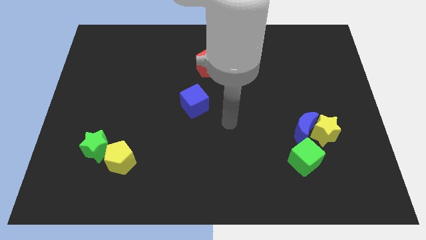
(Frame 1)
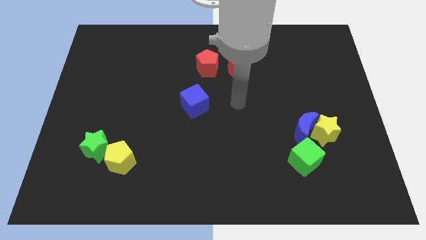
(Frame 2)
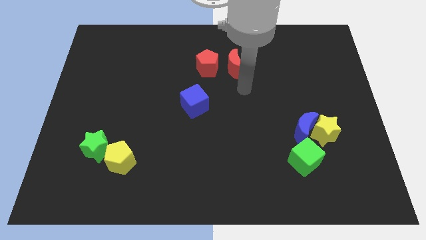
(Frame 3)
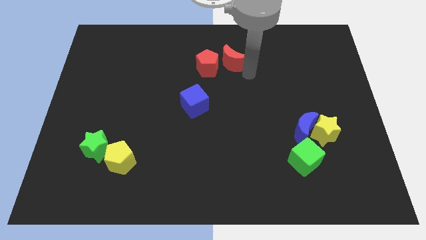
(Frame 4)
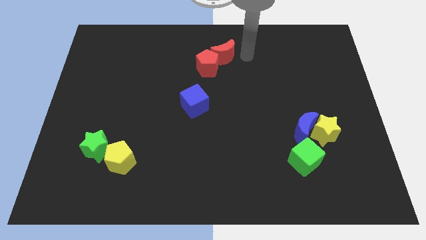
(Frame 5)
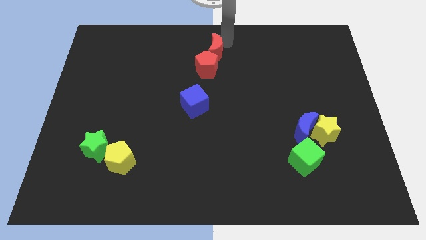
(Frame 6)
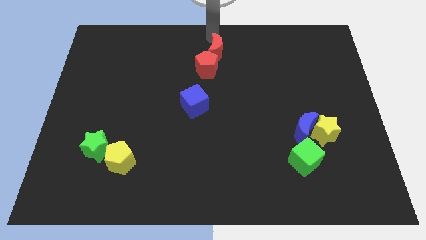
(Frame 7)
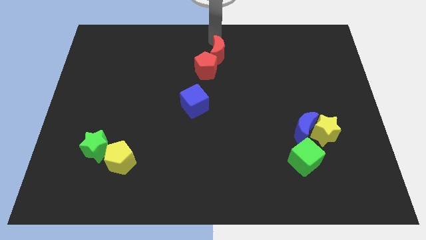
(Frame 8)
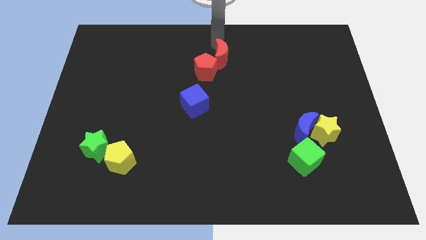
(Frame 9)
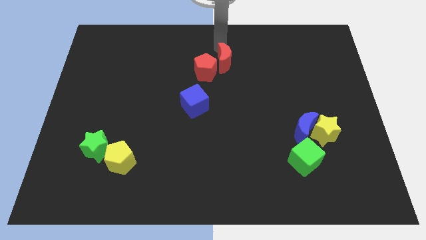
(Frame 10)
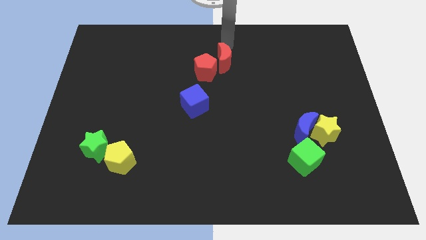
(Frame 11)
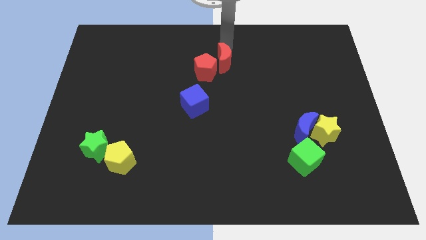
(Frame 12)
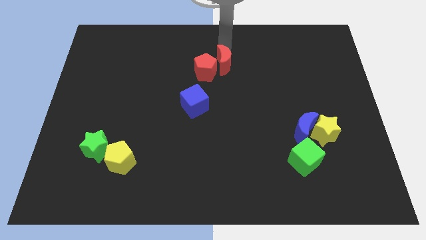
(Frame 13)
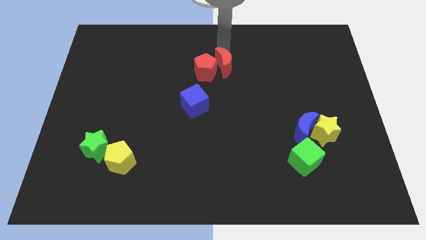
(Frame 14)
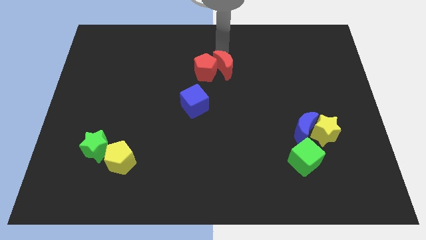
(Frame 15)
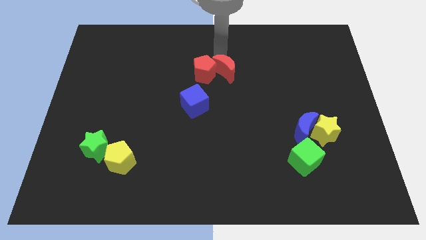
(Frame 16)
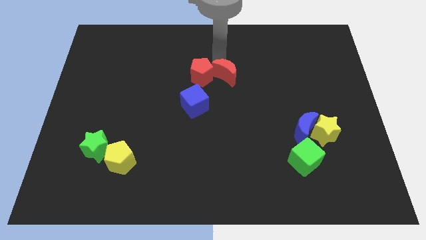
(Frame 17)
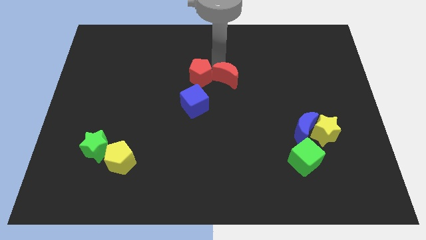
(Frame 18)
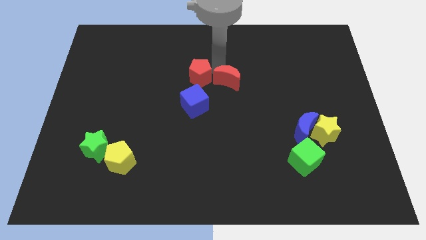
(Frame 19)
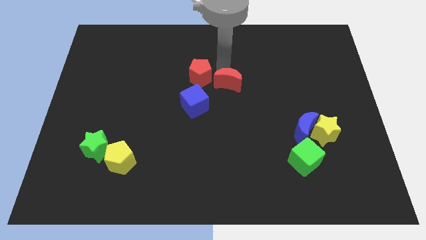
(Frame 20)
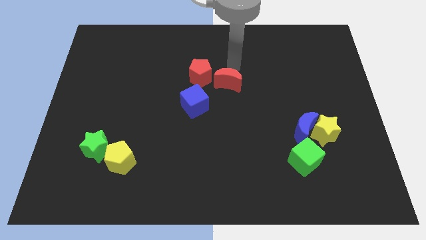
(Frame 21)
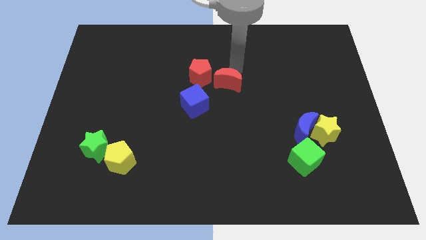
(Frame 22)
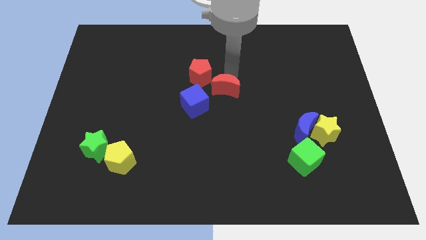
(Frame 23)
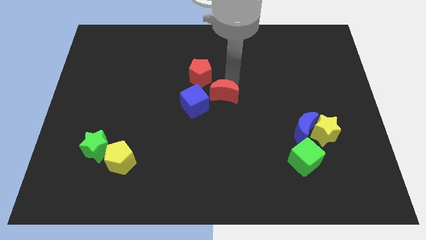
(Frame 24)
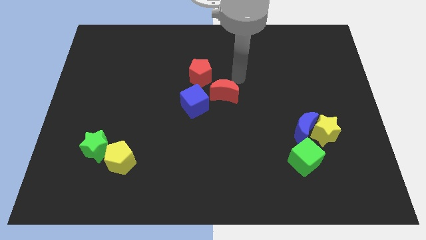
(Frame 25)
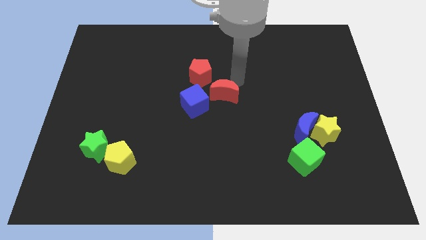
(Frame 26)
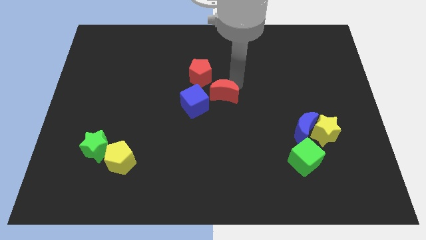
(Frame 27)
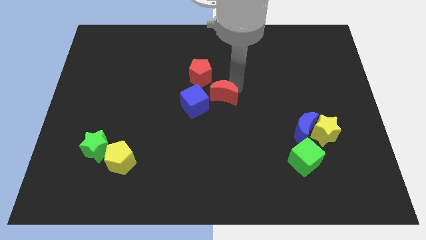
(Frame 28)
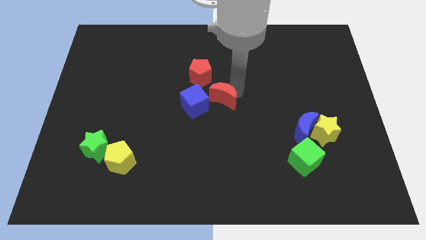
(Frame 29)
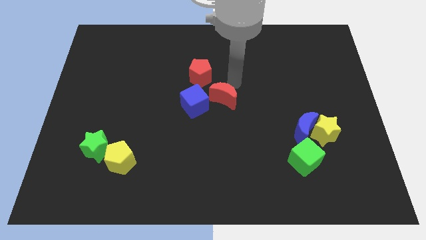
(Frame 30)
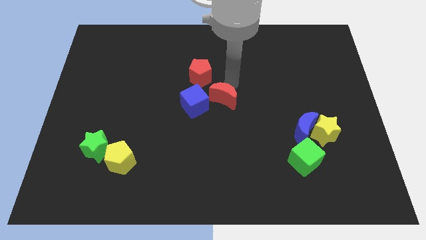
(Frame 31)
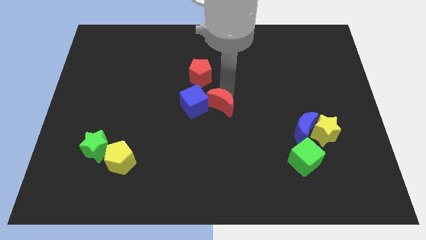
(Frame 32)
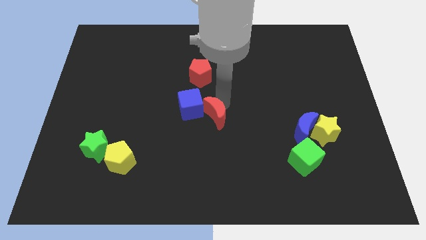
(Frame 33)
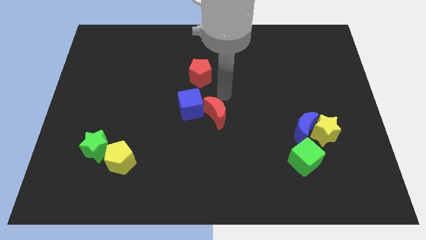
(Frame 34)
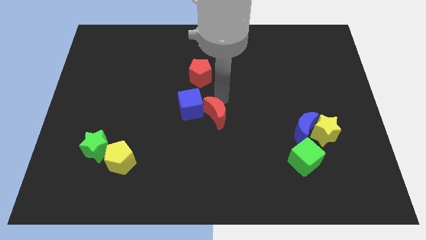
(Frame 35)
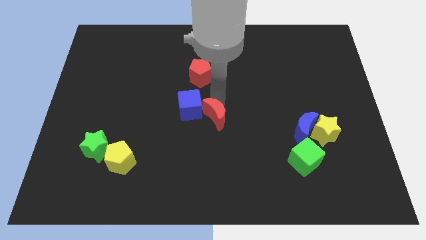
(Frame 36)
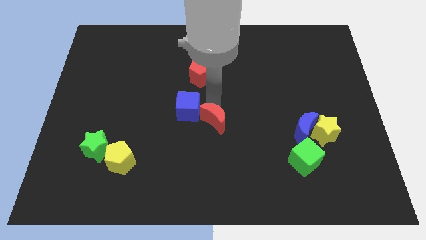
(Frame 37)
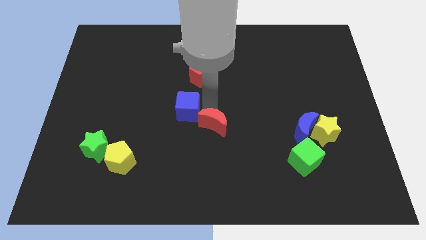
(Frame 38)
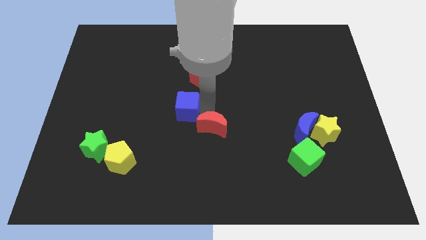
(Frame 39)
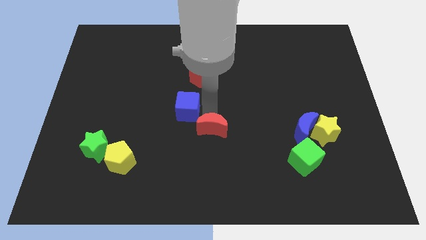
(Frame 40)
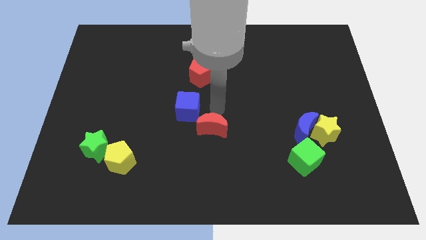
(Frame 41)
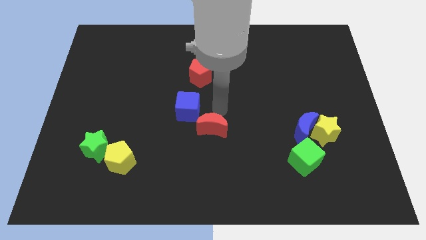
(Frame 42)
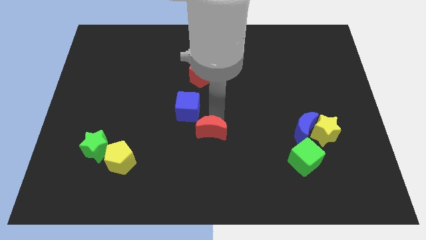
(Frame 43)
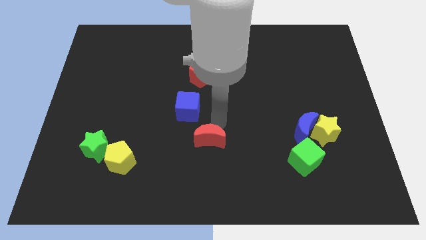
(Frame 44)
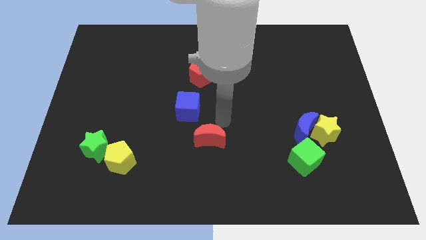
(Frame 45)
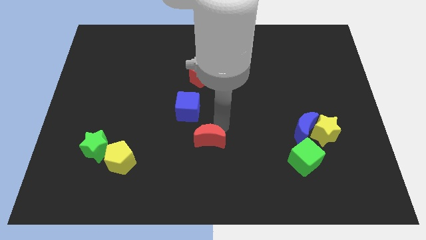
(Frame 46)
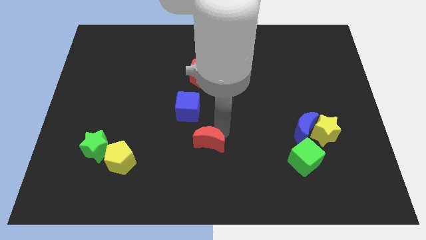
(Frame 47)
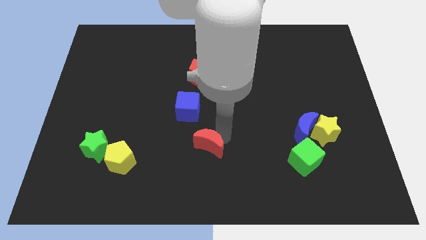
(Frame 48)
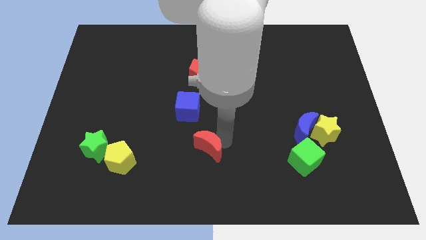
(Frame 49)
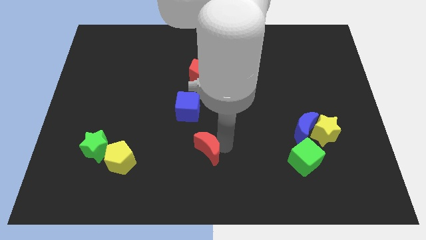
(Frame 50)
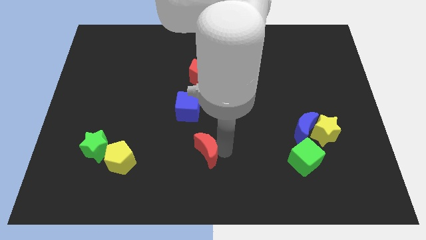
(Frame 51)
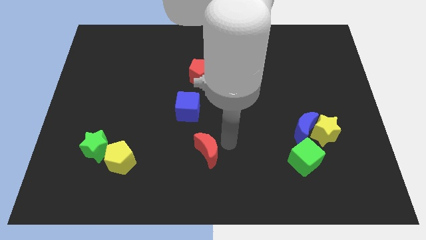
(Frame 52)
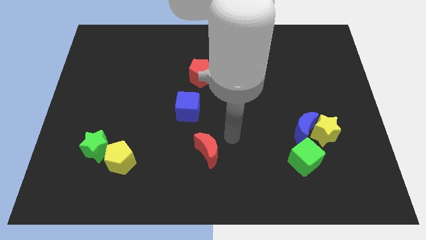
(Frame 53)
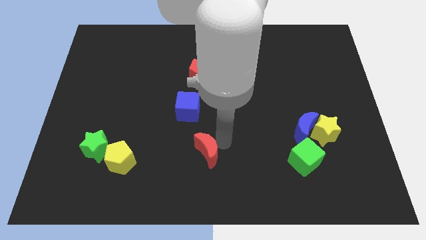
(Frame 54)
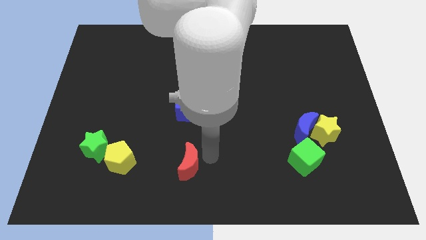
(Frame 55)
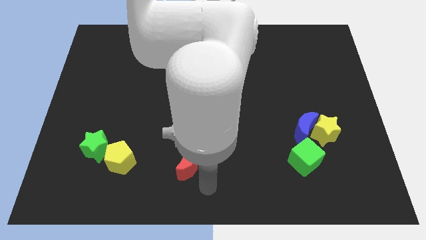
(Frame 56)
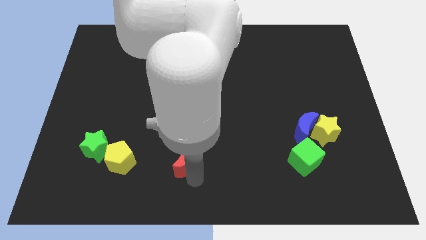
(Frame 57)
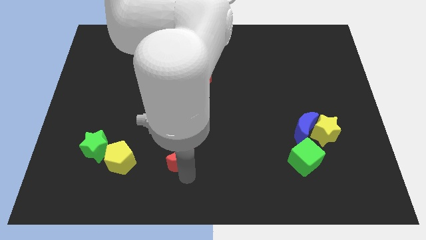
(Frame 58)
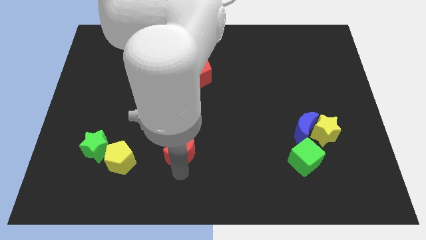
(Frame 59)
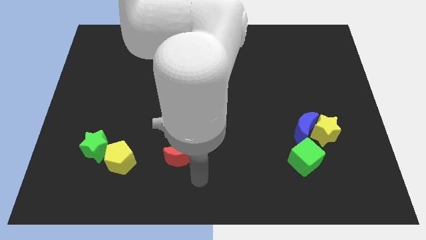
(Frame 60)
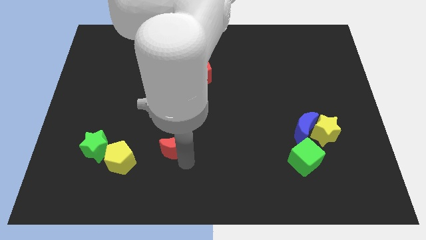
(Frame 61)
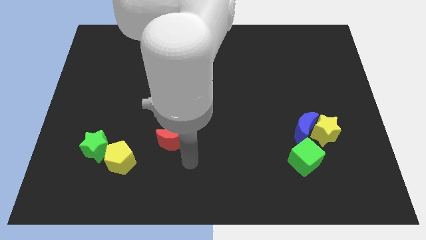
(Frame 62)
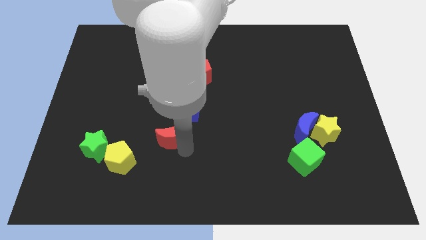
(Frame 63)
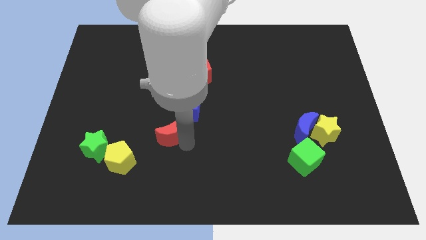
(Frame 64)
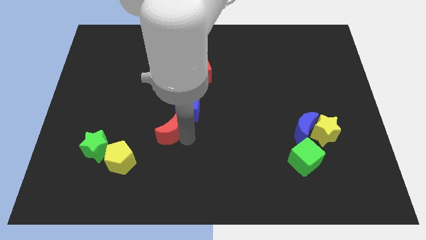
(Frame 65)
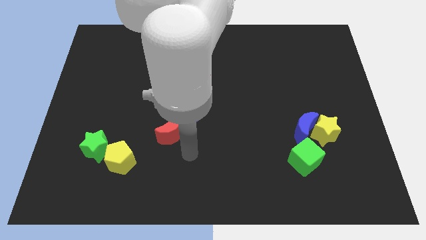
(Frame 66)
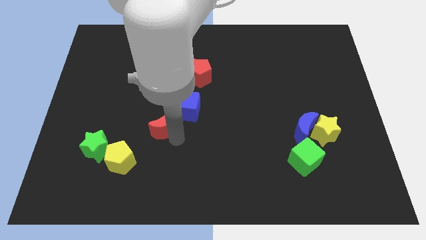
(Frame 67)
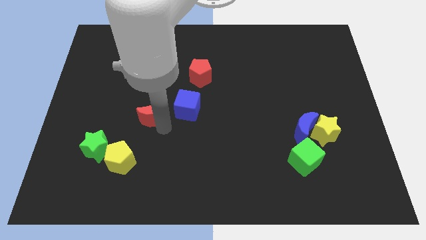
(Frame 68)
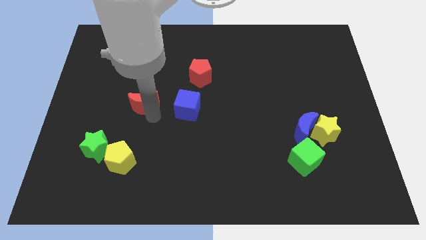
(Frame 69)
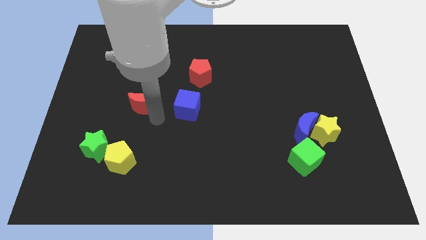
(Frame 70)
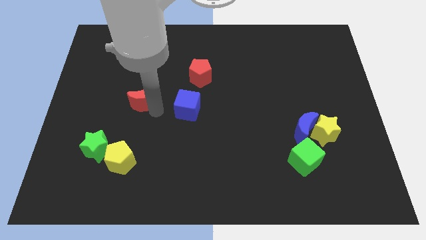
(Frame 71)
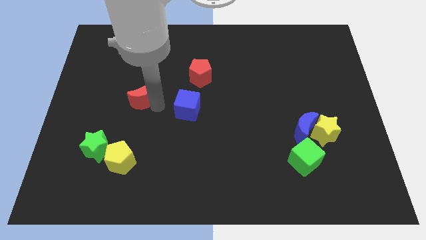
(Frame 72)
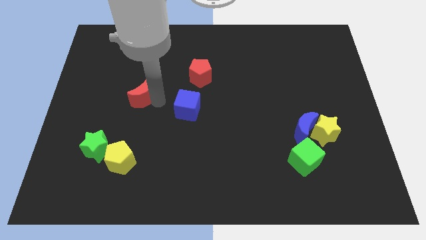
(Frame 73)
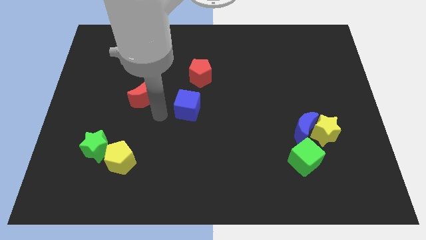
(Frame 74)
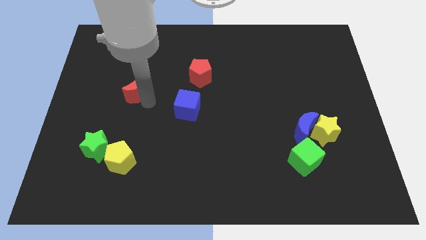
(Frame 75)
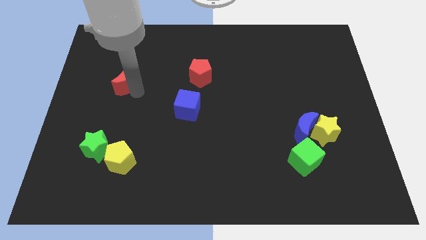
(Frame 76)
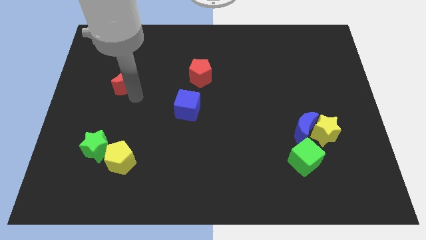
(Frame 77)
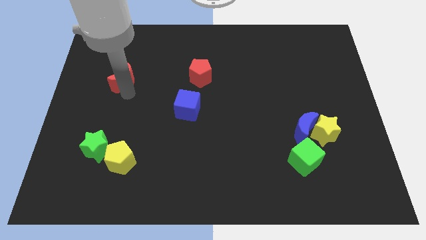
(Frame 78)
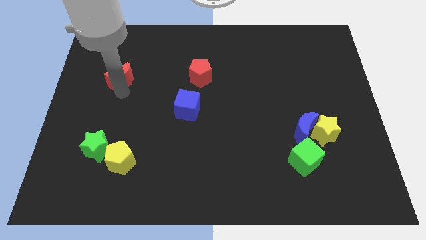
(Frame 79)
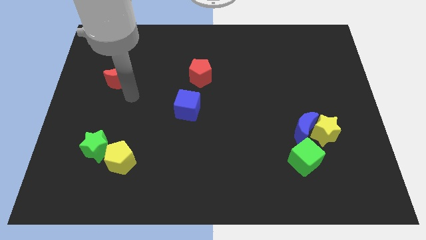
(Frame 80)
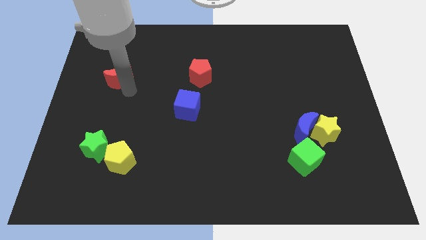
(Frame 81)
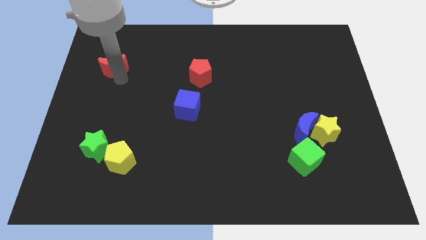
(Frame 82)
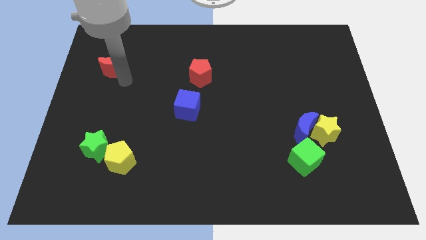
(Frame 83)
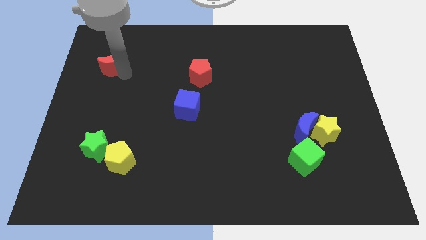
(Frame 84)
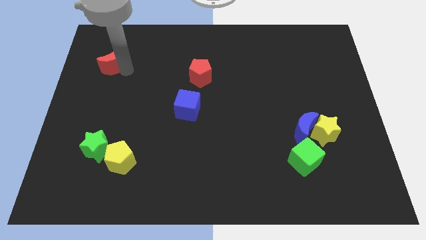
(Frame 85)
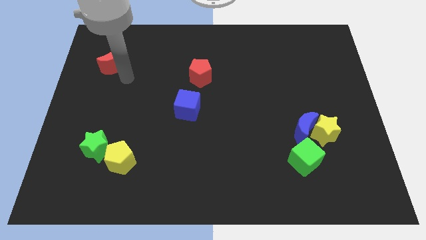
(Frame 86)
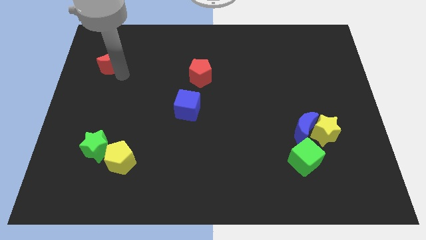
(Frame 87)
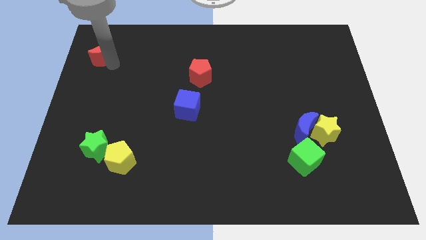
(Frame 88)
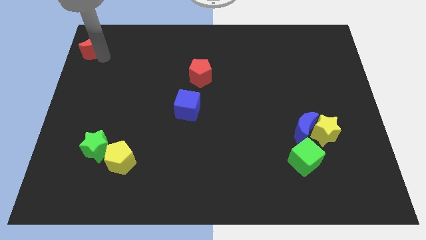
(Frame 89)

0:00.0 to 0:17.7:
move the red moon to the top left of the board
